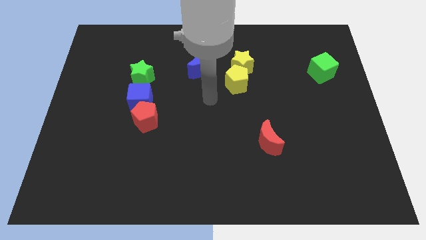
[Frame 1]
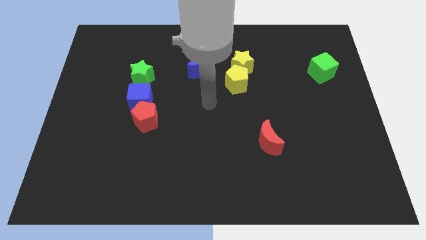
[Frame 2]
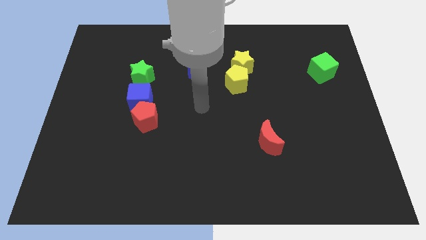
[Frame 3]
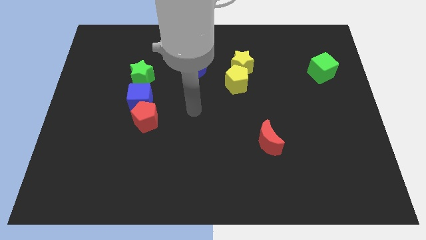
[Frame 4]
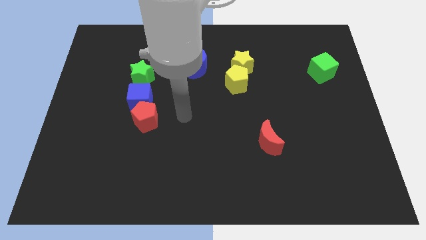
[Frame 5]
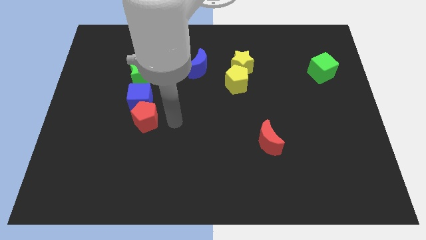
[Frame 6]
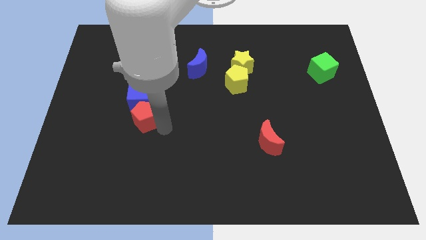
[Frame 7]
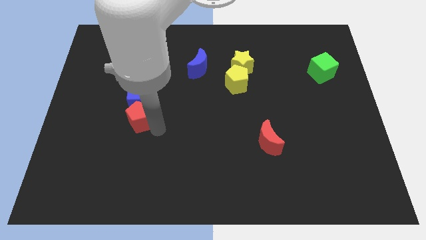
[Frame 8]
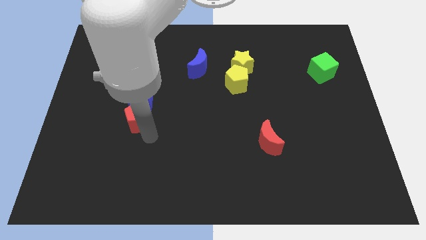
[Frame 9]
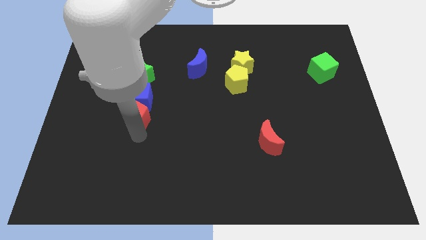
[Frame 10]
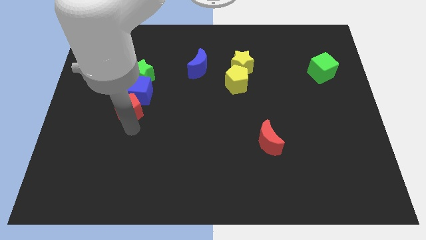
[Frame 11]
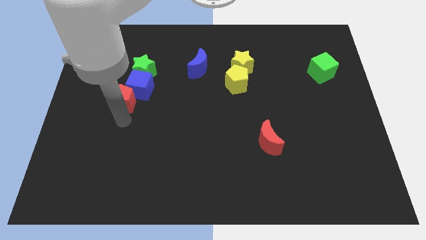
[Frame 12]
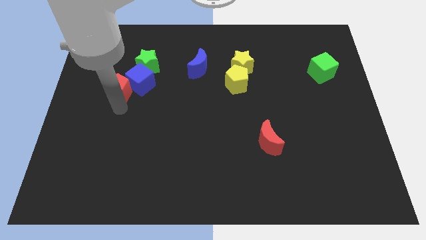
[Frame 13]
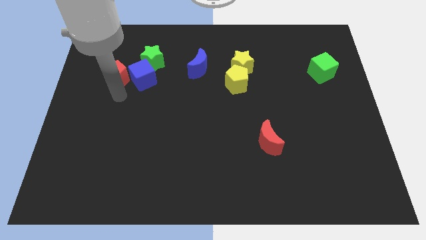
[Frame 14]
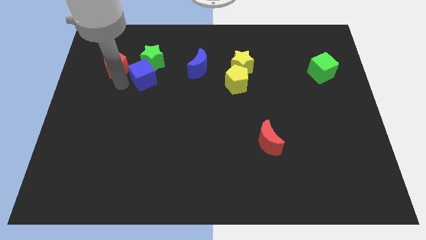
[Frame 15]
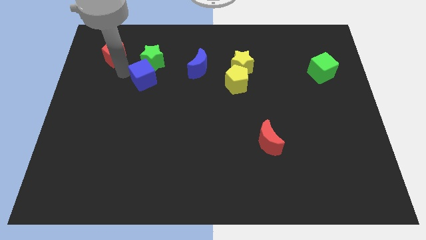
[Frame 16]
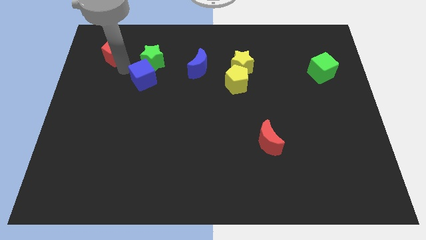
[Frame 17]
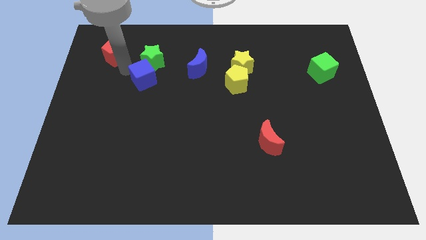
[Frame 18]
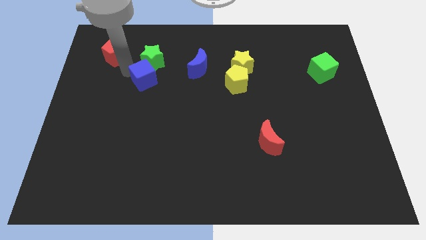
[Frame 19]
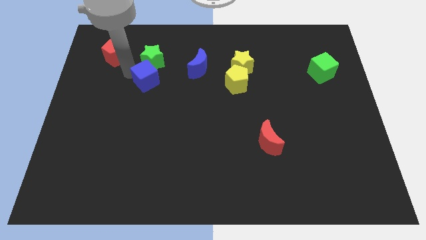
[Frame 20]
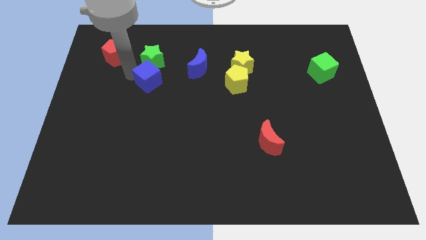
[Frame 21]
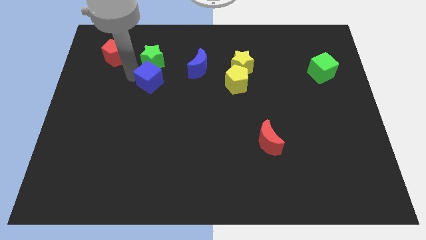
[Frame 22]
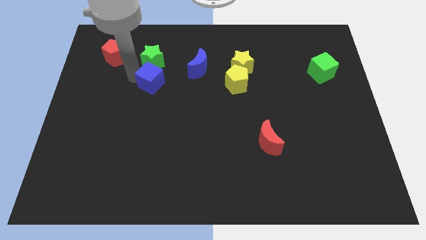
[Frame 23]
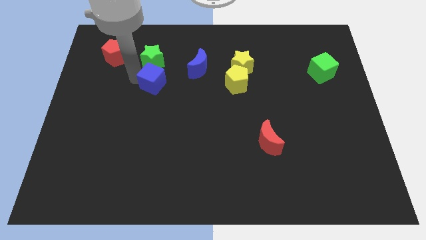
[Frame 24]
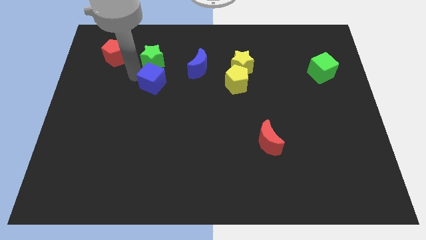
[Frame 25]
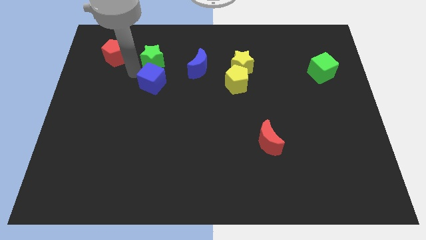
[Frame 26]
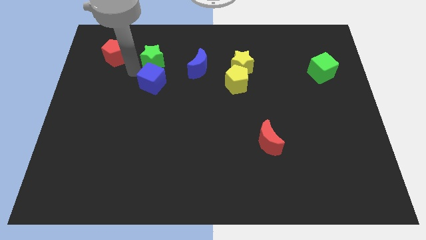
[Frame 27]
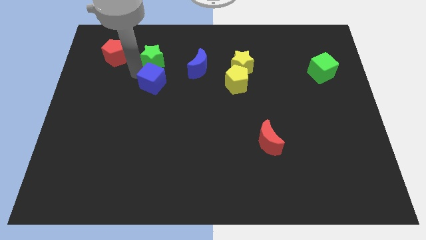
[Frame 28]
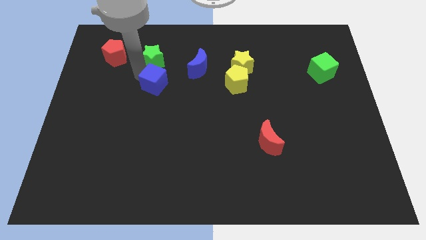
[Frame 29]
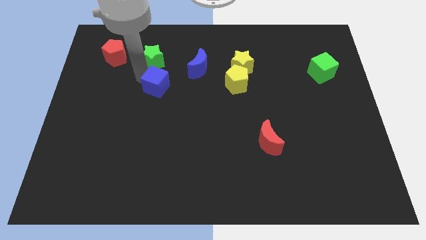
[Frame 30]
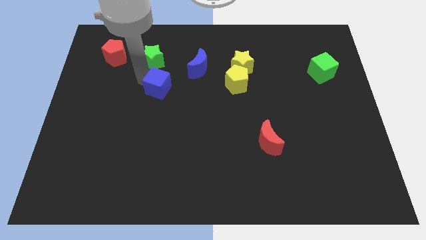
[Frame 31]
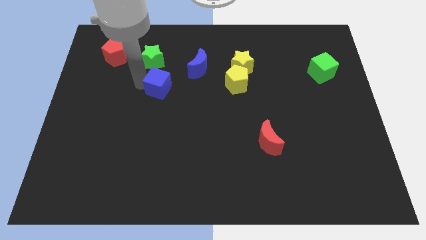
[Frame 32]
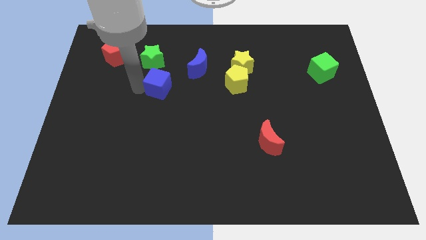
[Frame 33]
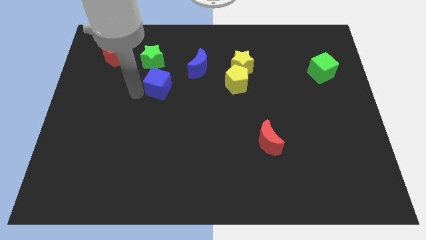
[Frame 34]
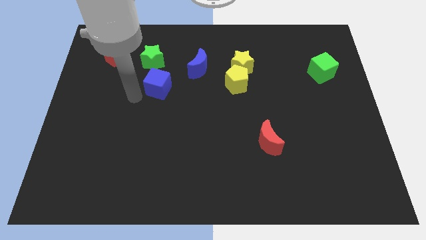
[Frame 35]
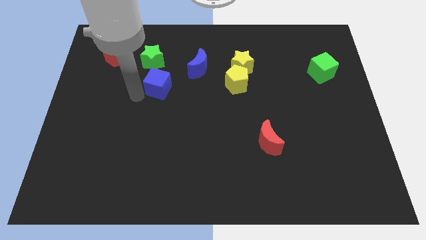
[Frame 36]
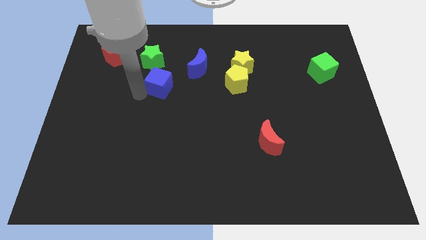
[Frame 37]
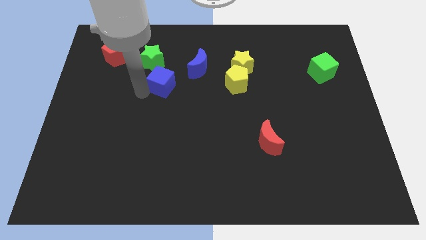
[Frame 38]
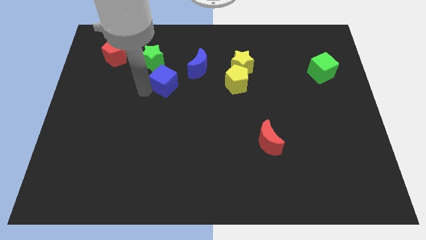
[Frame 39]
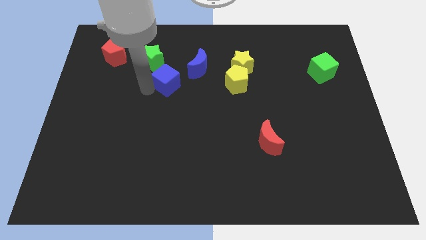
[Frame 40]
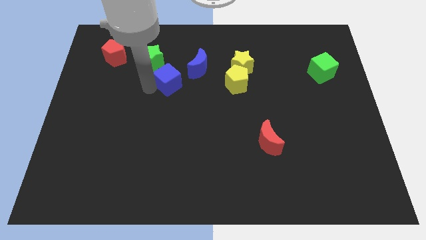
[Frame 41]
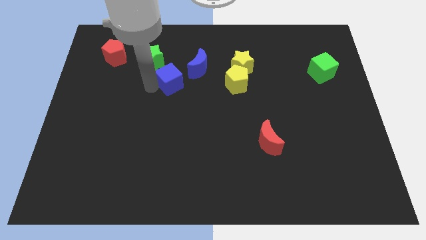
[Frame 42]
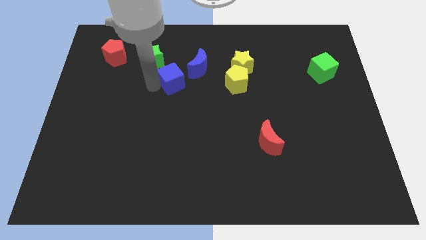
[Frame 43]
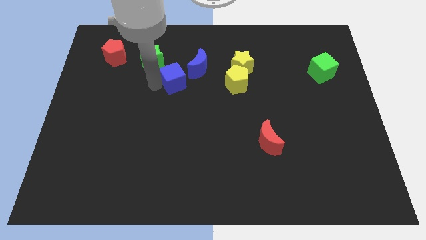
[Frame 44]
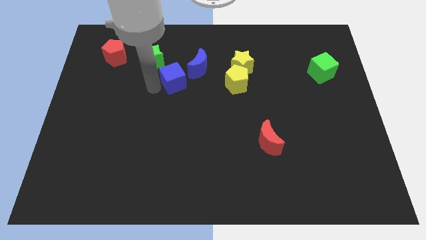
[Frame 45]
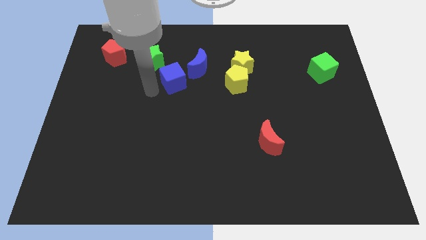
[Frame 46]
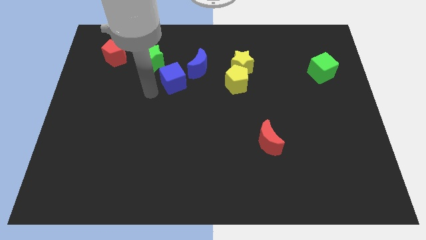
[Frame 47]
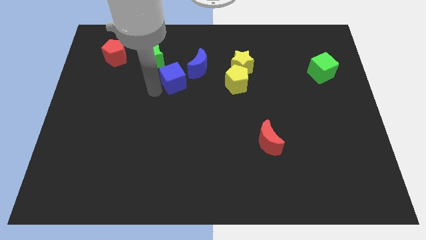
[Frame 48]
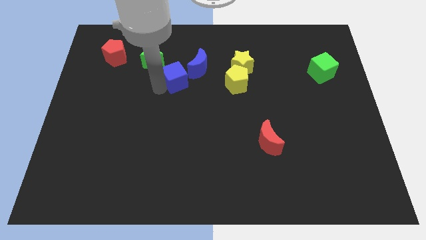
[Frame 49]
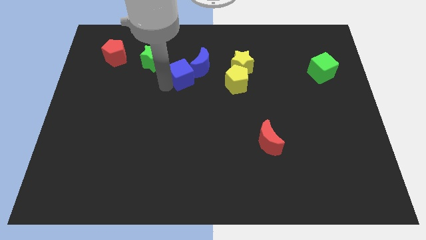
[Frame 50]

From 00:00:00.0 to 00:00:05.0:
move the blue cube next to the blue moon

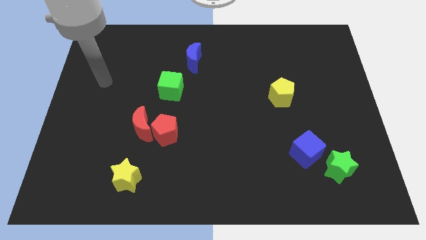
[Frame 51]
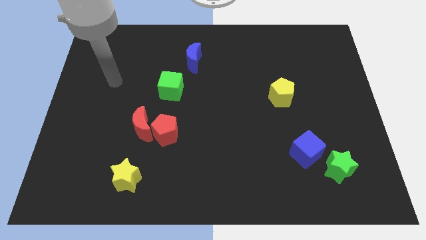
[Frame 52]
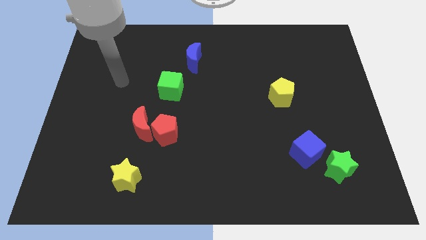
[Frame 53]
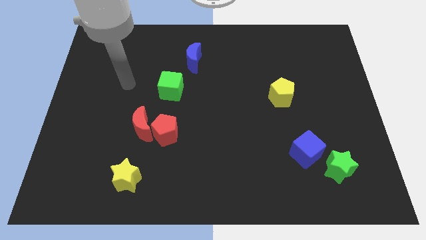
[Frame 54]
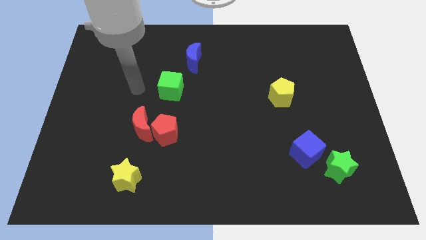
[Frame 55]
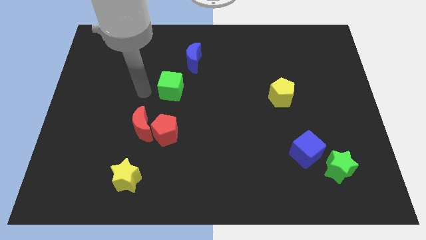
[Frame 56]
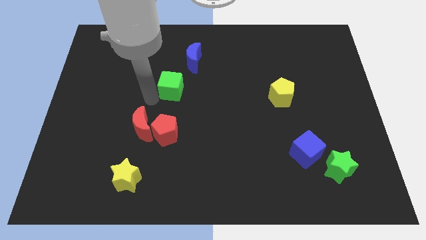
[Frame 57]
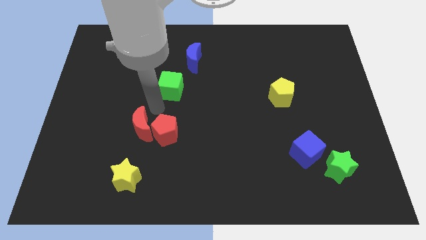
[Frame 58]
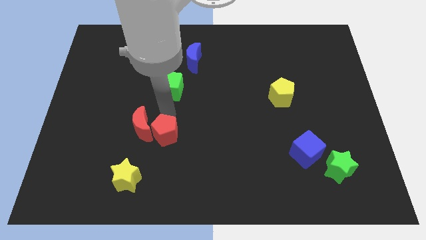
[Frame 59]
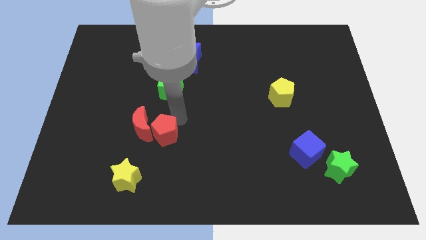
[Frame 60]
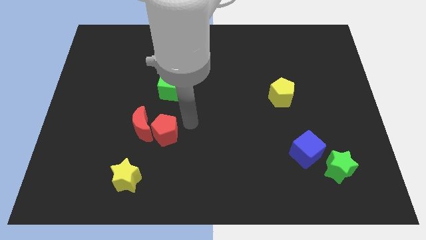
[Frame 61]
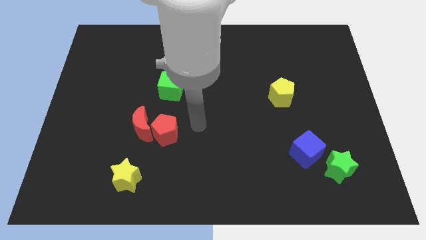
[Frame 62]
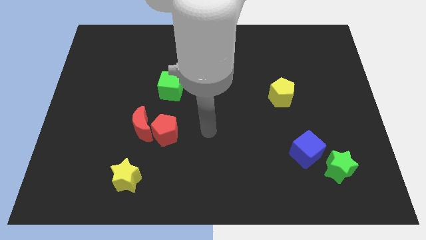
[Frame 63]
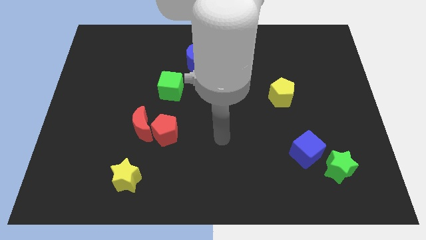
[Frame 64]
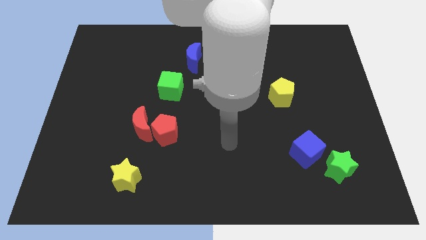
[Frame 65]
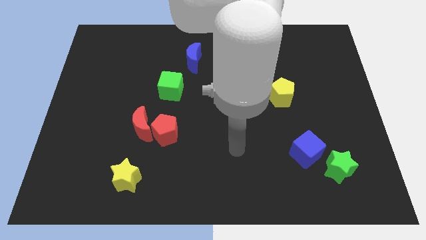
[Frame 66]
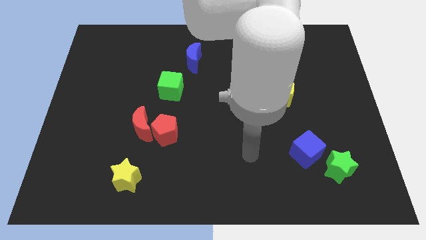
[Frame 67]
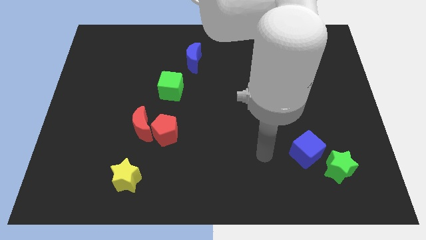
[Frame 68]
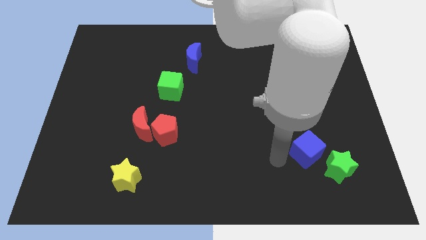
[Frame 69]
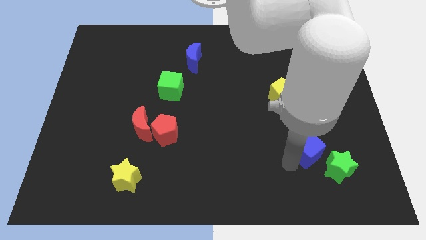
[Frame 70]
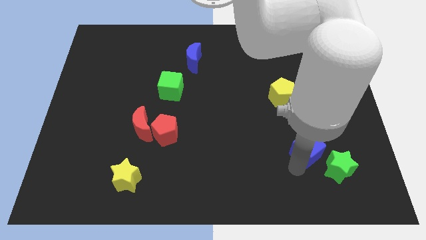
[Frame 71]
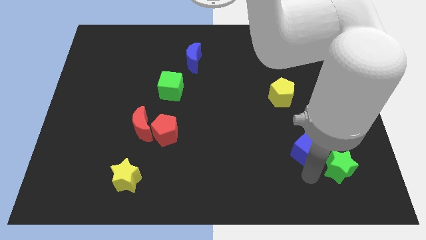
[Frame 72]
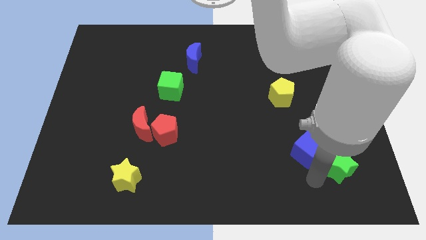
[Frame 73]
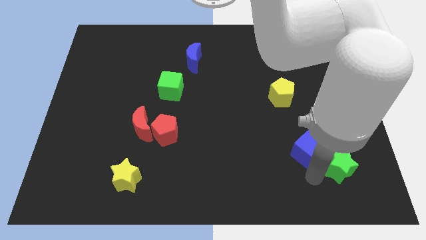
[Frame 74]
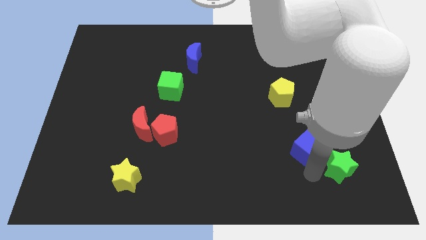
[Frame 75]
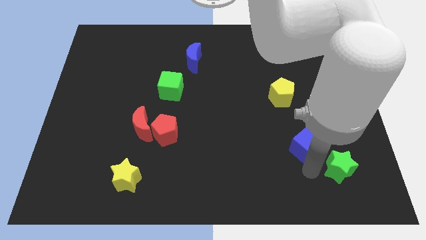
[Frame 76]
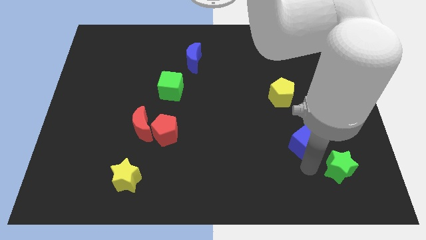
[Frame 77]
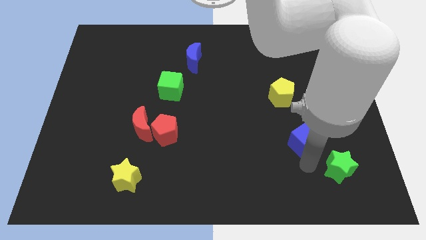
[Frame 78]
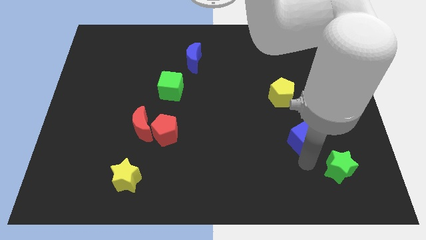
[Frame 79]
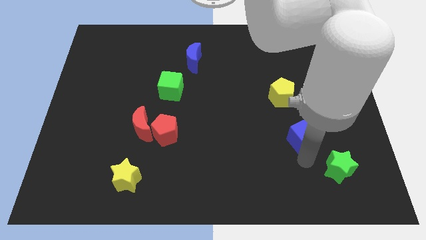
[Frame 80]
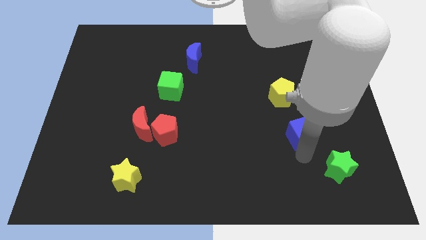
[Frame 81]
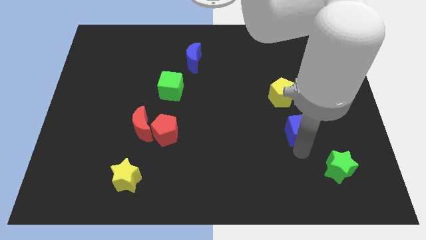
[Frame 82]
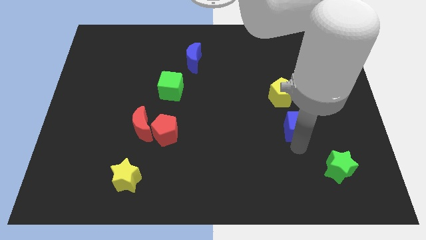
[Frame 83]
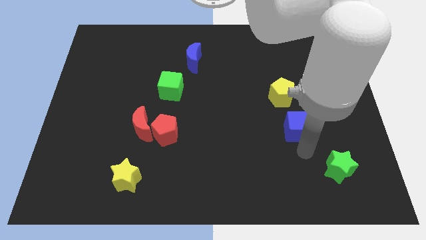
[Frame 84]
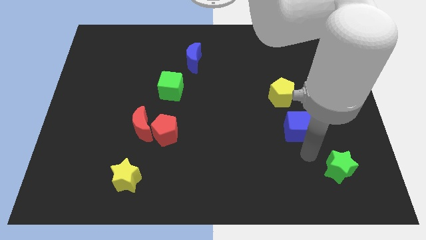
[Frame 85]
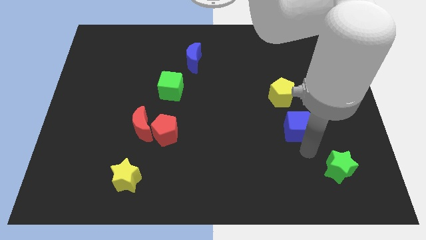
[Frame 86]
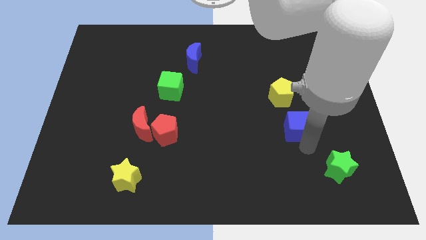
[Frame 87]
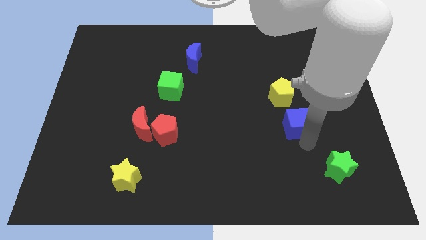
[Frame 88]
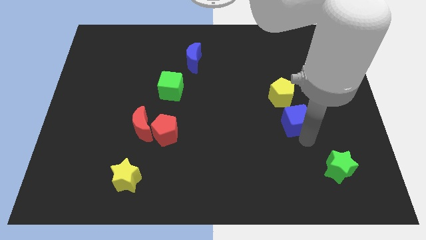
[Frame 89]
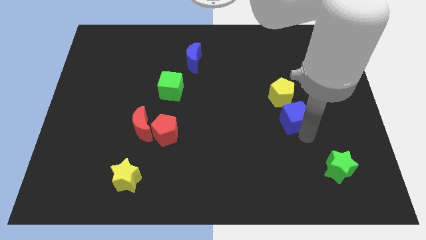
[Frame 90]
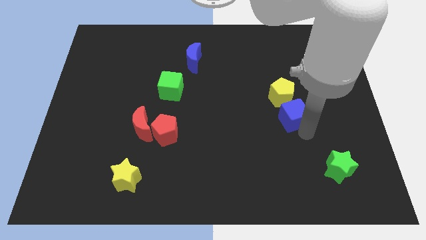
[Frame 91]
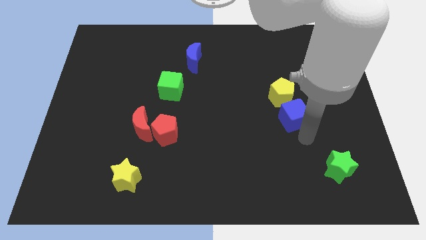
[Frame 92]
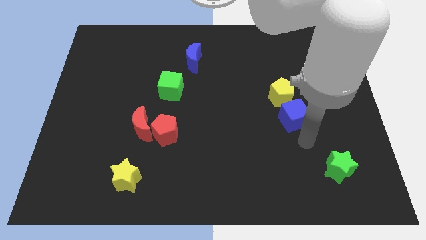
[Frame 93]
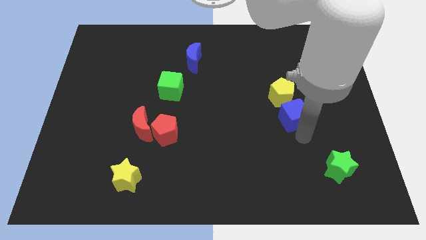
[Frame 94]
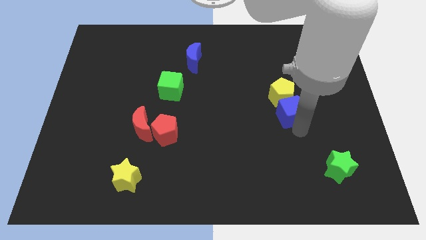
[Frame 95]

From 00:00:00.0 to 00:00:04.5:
push the blue cube to the yellow pentagon
